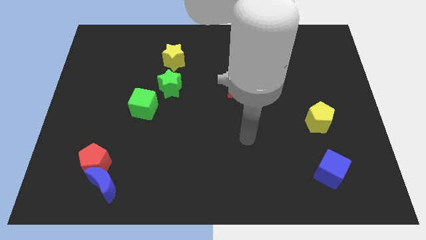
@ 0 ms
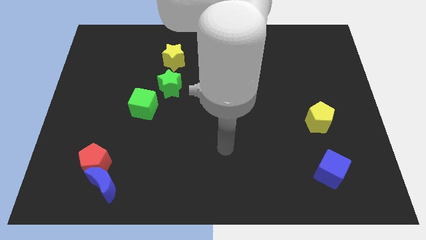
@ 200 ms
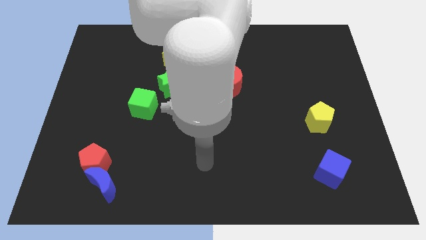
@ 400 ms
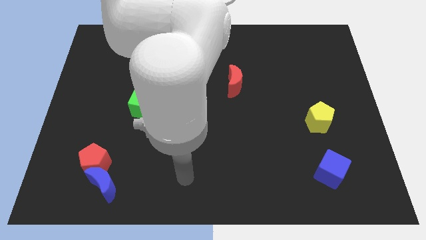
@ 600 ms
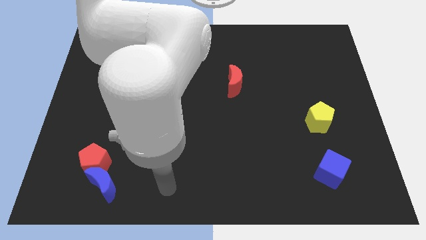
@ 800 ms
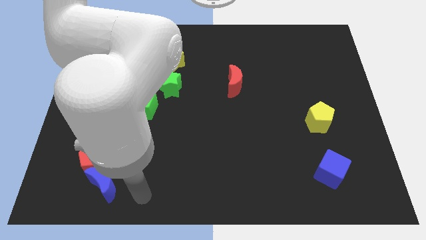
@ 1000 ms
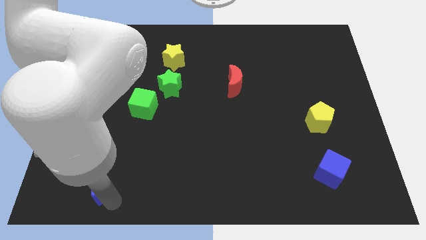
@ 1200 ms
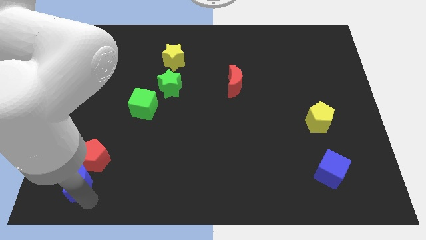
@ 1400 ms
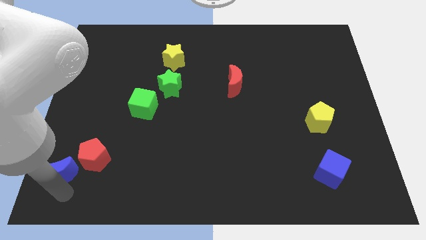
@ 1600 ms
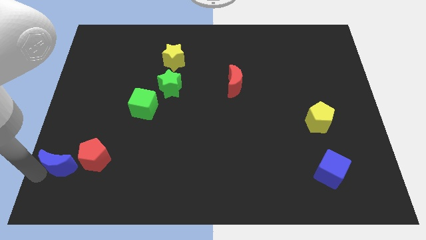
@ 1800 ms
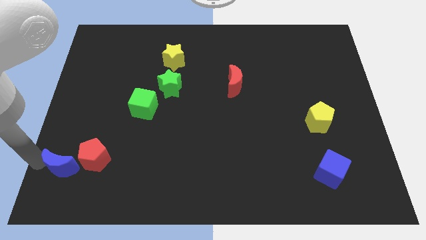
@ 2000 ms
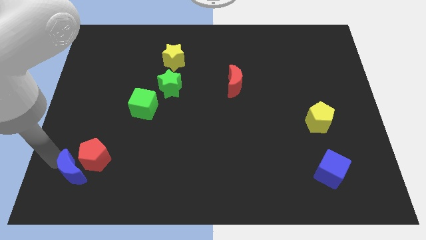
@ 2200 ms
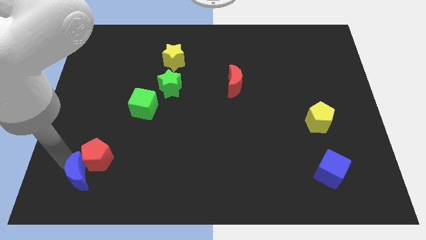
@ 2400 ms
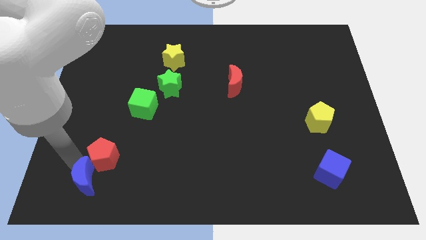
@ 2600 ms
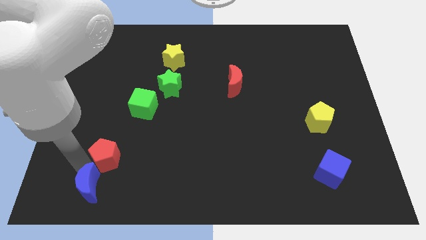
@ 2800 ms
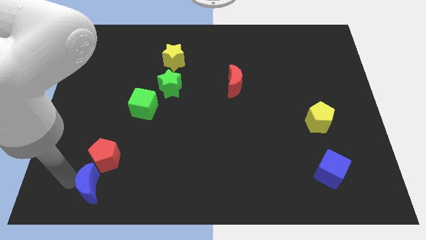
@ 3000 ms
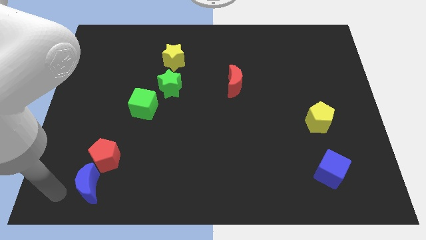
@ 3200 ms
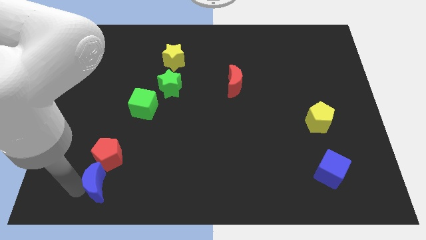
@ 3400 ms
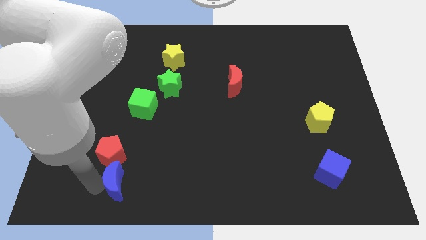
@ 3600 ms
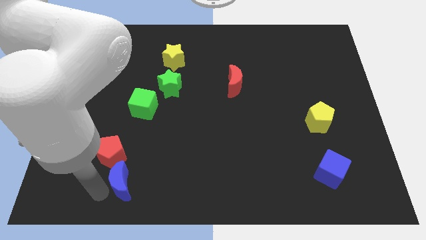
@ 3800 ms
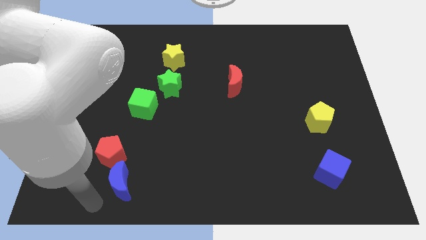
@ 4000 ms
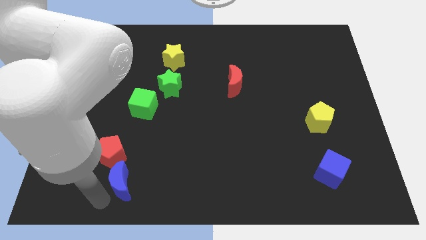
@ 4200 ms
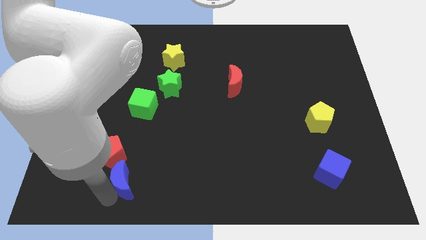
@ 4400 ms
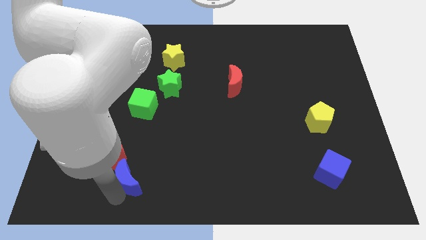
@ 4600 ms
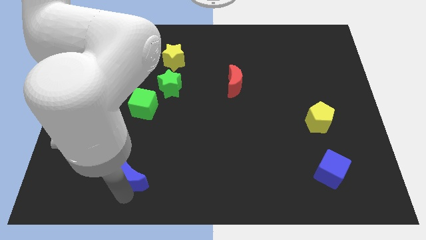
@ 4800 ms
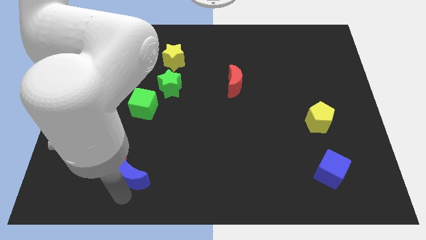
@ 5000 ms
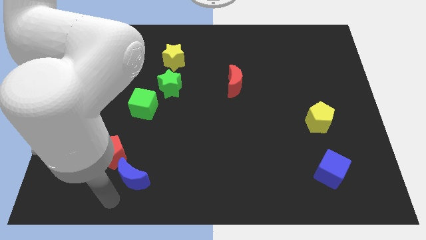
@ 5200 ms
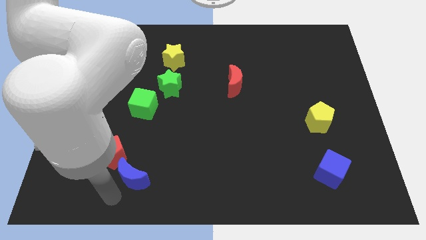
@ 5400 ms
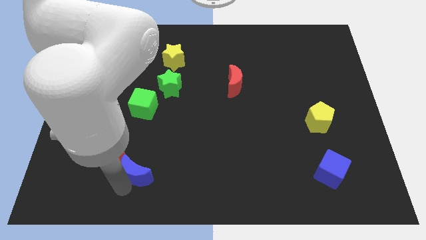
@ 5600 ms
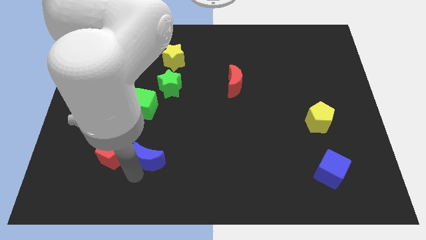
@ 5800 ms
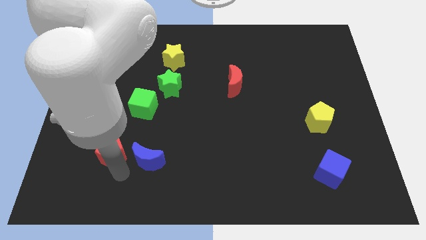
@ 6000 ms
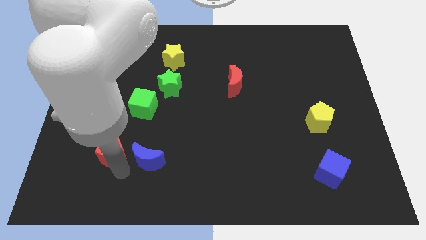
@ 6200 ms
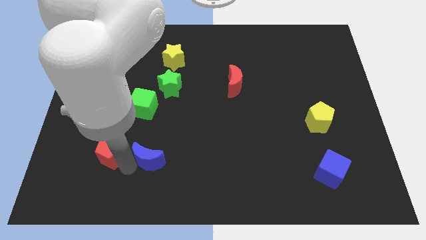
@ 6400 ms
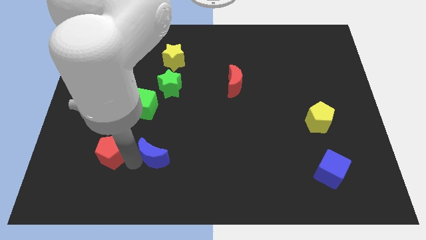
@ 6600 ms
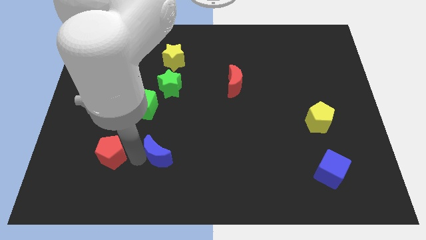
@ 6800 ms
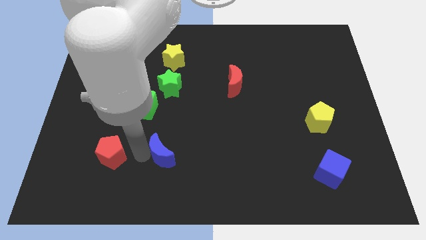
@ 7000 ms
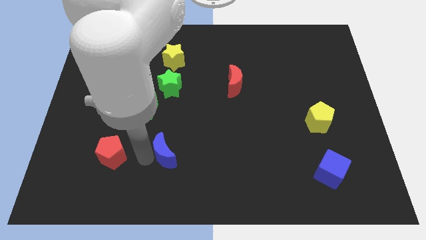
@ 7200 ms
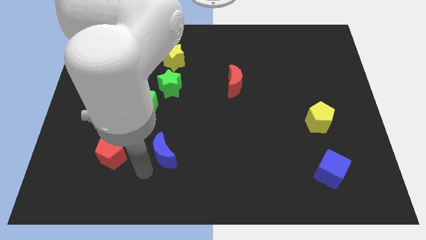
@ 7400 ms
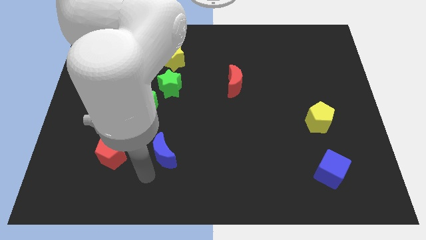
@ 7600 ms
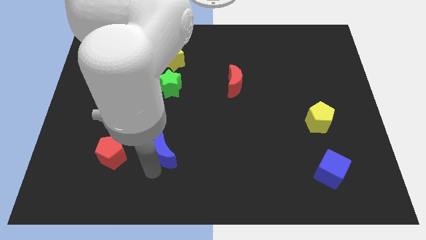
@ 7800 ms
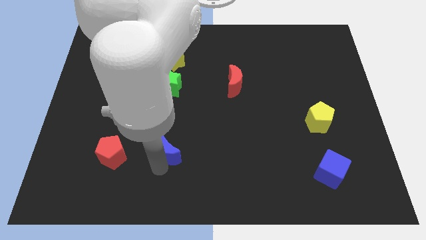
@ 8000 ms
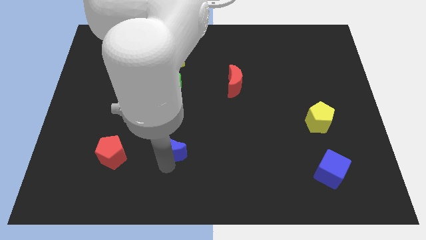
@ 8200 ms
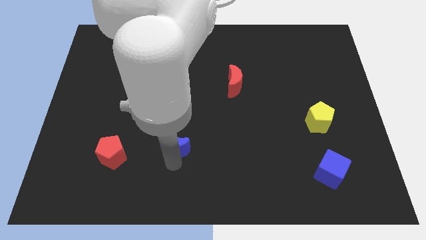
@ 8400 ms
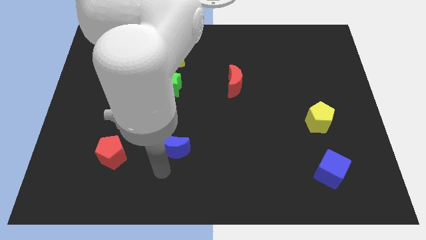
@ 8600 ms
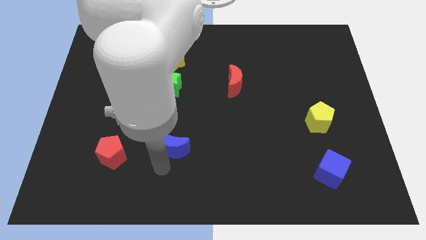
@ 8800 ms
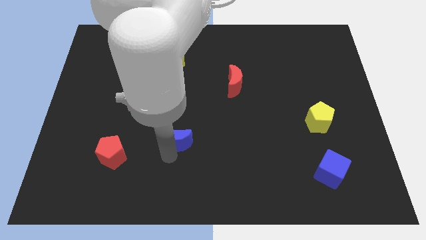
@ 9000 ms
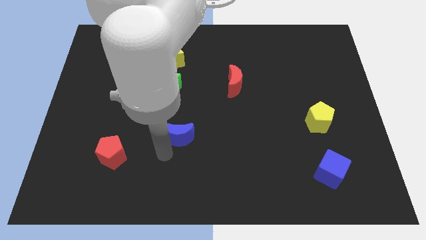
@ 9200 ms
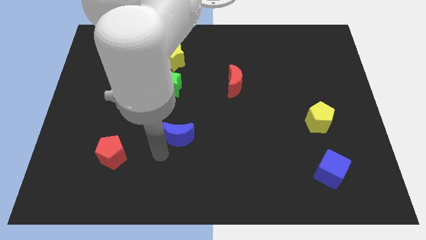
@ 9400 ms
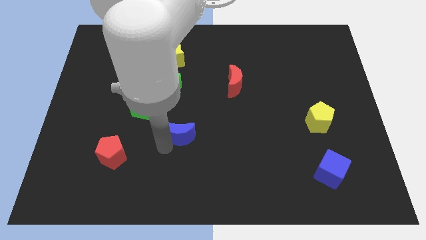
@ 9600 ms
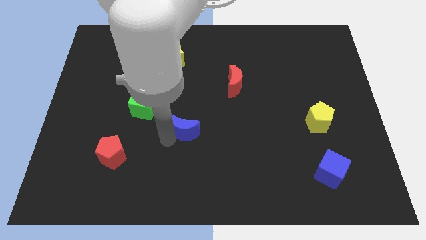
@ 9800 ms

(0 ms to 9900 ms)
push the blue moon upwards and right

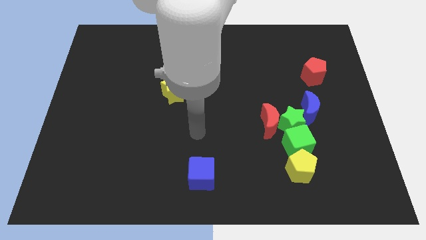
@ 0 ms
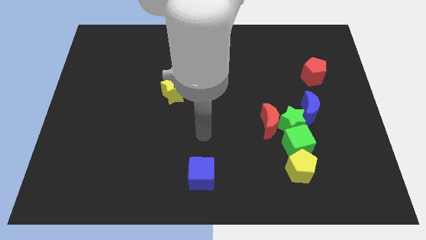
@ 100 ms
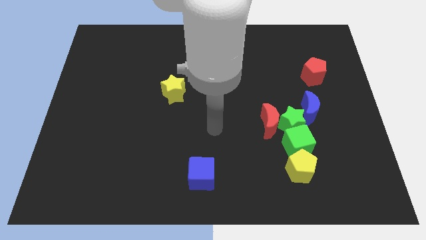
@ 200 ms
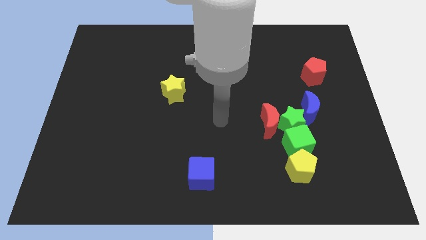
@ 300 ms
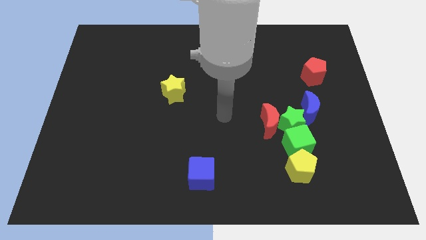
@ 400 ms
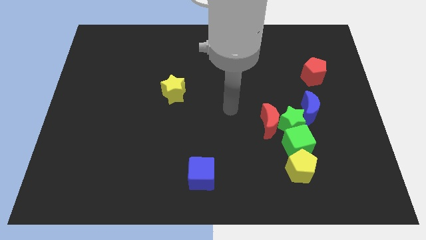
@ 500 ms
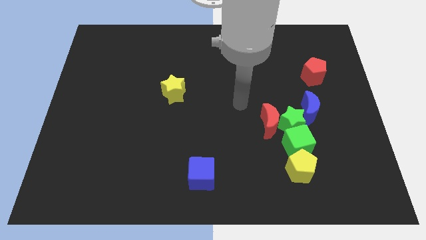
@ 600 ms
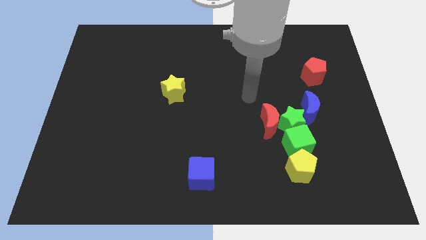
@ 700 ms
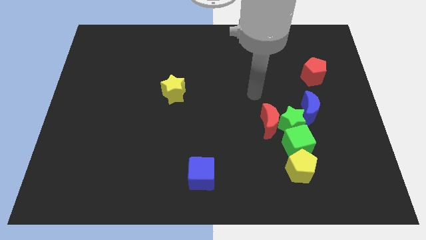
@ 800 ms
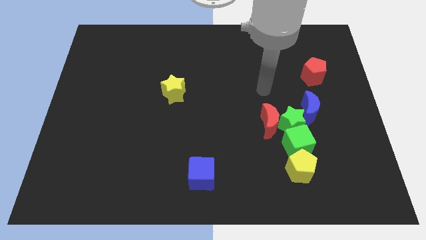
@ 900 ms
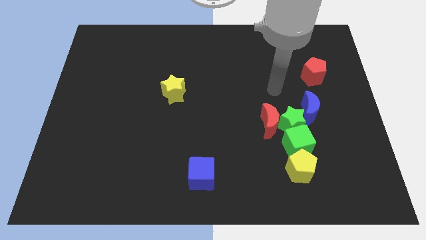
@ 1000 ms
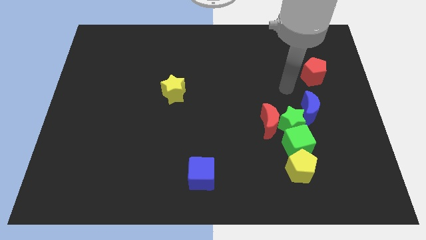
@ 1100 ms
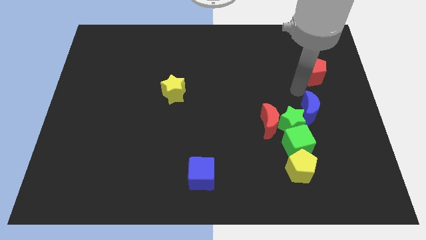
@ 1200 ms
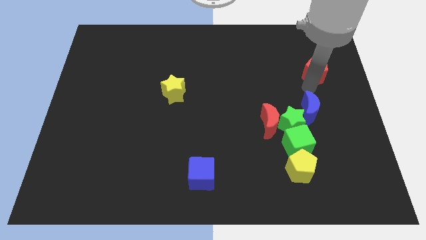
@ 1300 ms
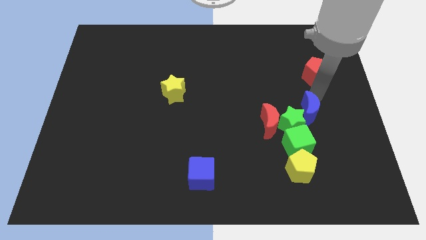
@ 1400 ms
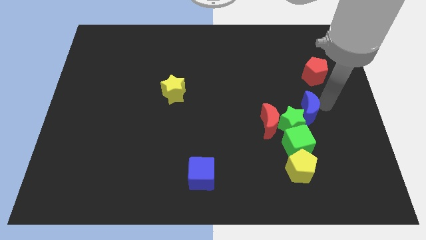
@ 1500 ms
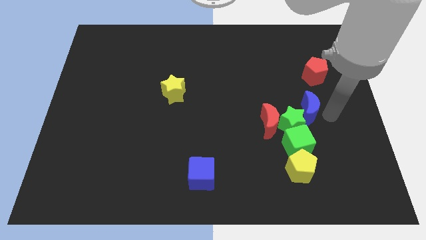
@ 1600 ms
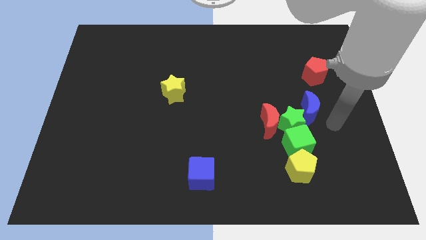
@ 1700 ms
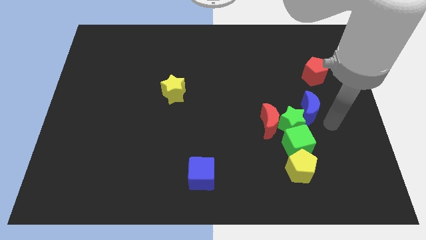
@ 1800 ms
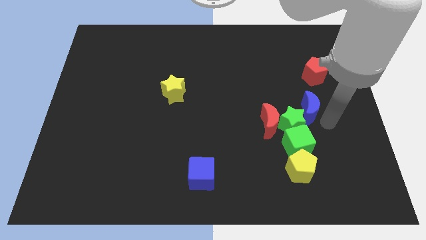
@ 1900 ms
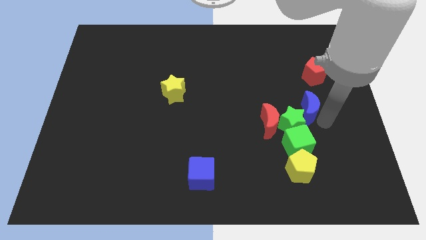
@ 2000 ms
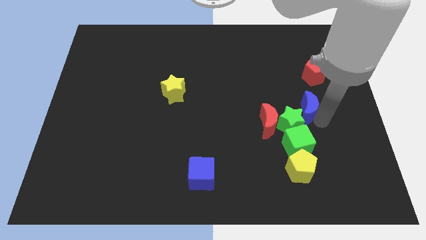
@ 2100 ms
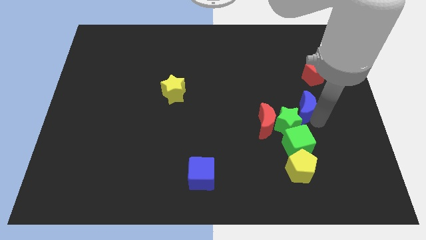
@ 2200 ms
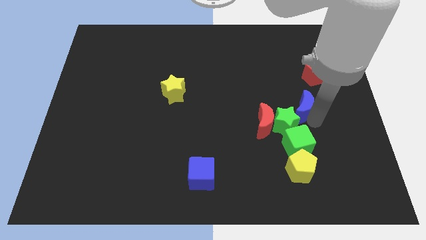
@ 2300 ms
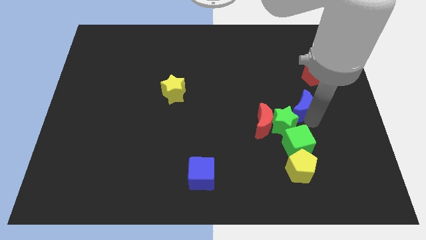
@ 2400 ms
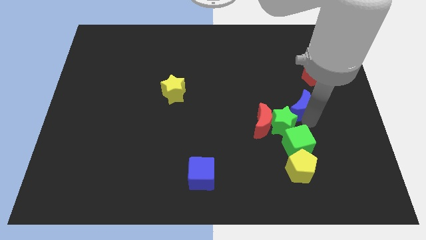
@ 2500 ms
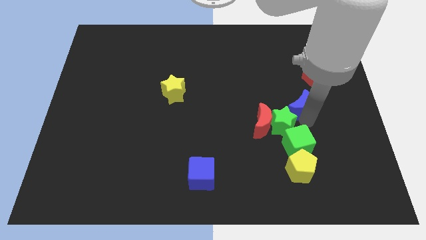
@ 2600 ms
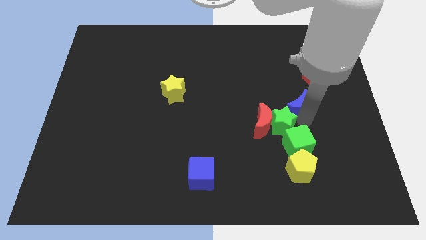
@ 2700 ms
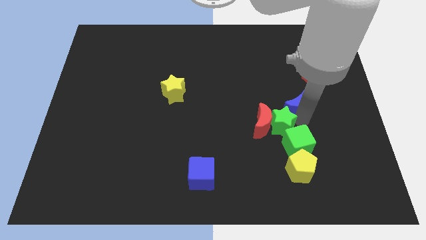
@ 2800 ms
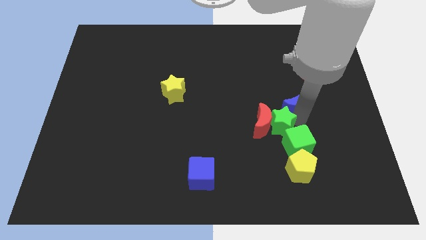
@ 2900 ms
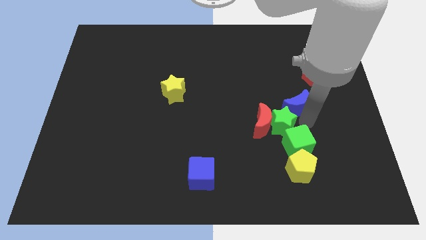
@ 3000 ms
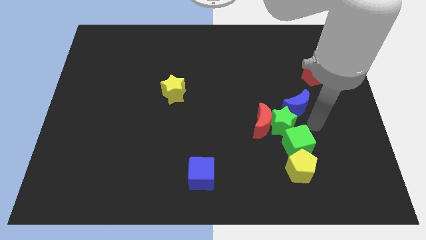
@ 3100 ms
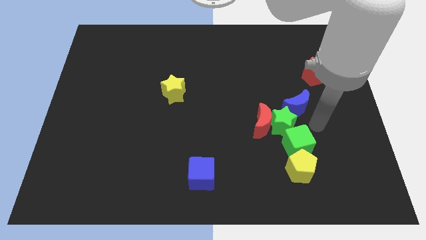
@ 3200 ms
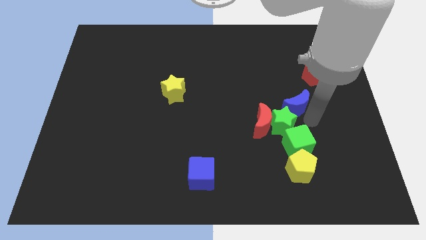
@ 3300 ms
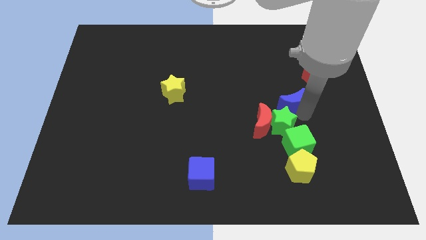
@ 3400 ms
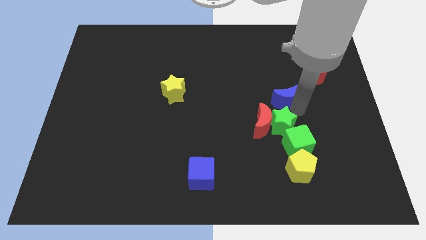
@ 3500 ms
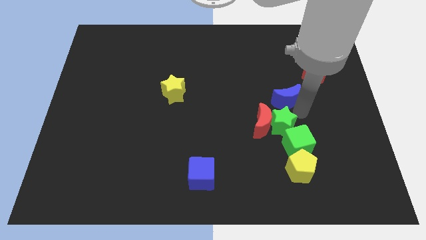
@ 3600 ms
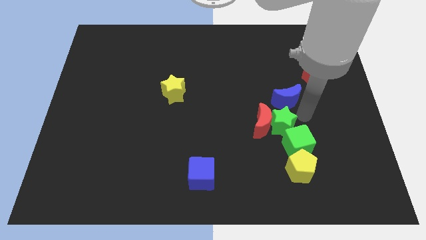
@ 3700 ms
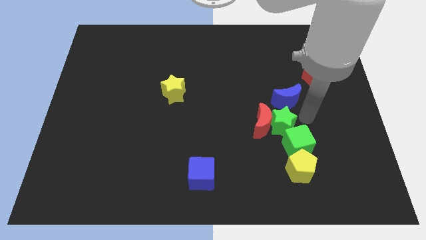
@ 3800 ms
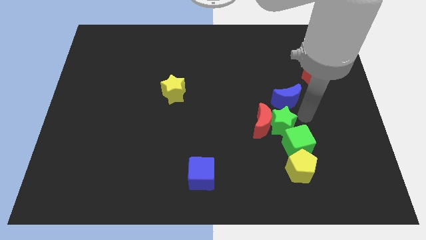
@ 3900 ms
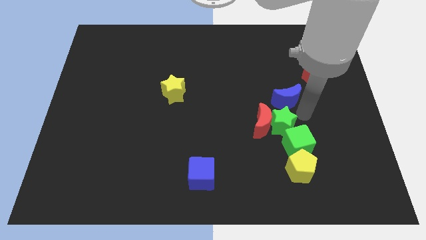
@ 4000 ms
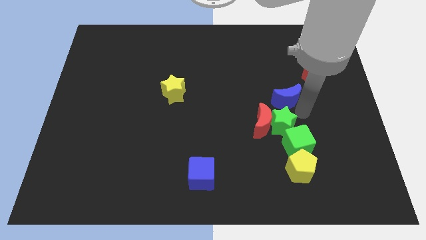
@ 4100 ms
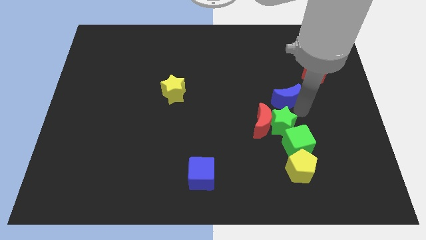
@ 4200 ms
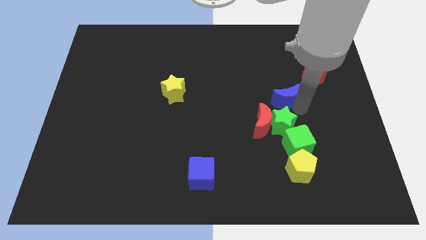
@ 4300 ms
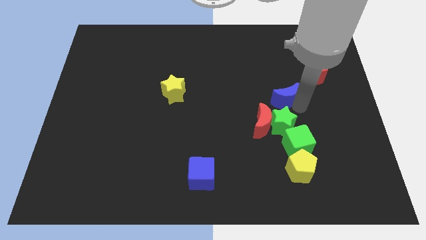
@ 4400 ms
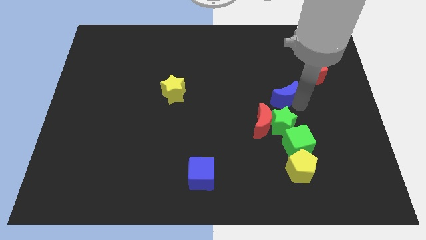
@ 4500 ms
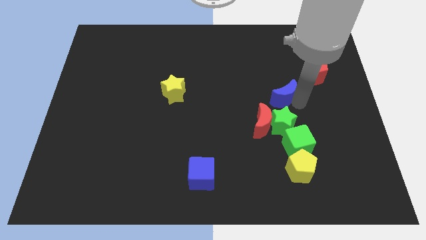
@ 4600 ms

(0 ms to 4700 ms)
slightly slide the blue moon up and to the left diagonally
